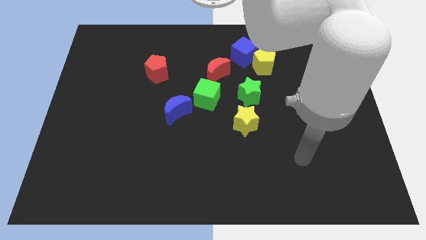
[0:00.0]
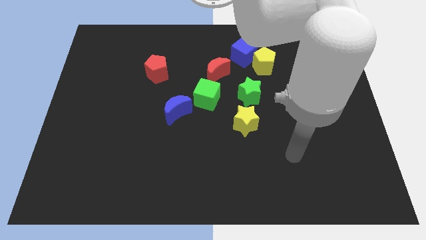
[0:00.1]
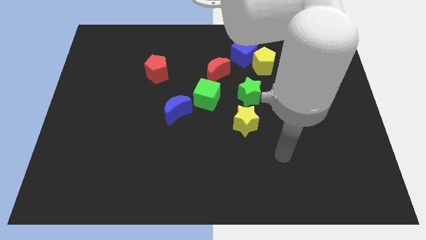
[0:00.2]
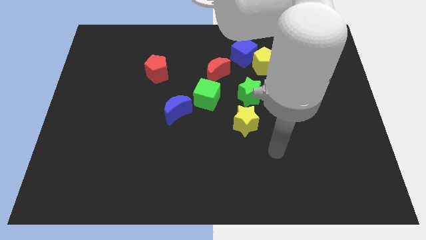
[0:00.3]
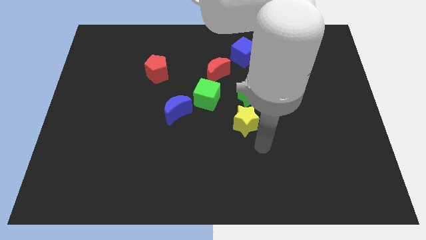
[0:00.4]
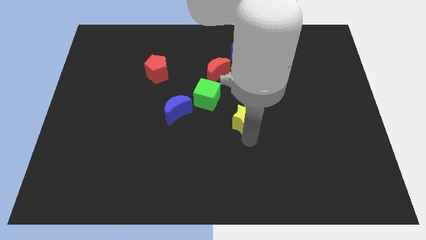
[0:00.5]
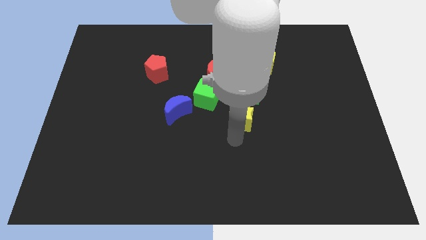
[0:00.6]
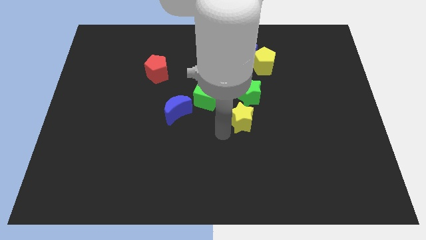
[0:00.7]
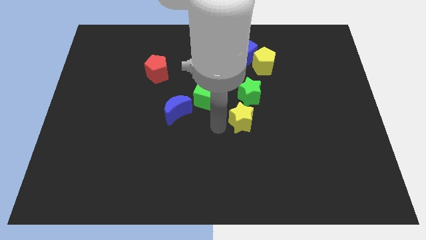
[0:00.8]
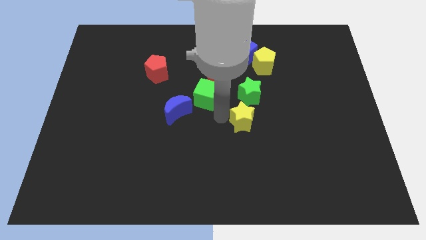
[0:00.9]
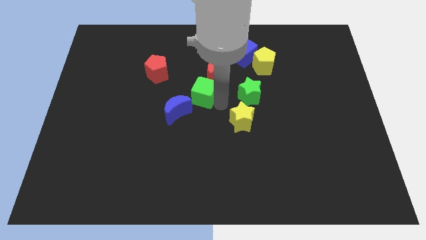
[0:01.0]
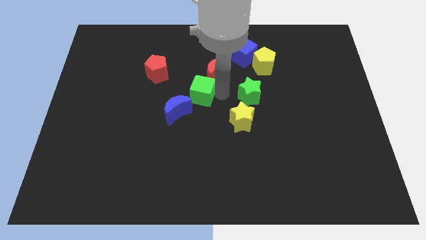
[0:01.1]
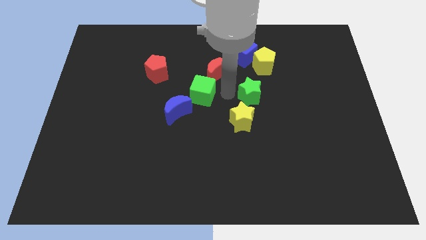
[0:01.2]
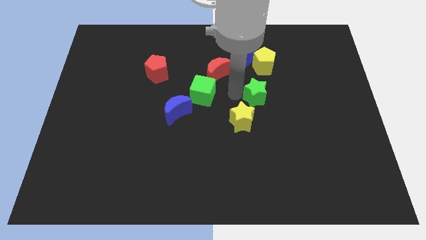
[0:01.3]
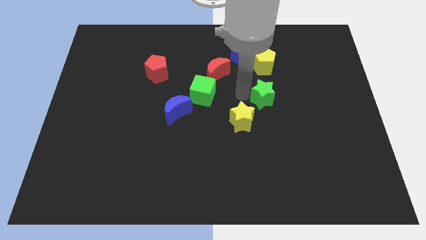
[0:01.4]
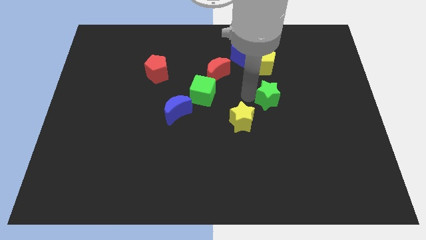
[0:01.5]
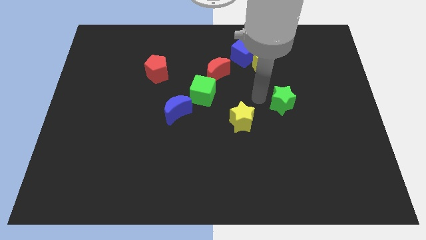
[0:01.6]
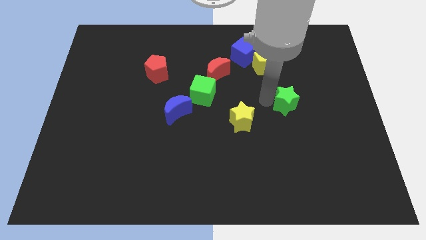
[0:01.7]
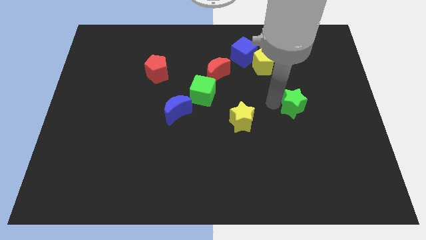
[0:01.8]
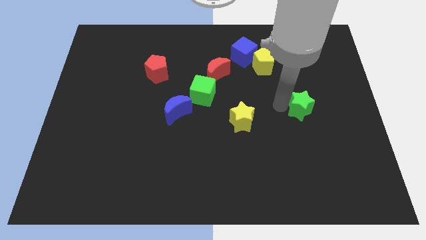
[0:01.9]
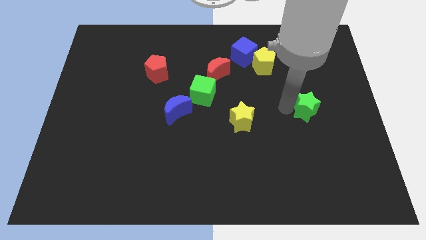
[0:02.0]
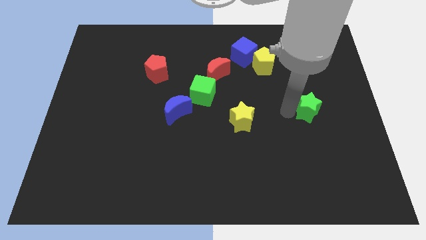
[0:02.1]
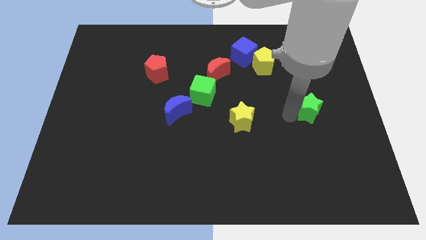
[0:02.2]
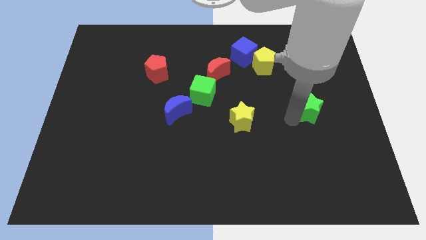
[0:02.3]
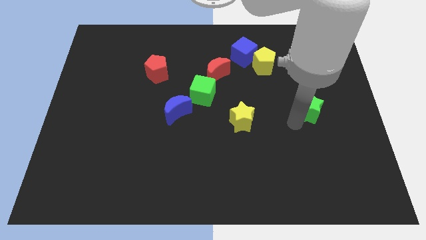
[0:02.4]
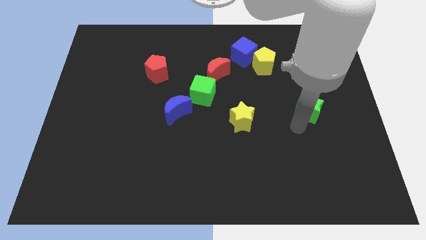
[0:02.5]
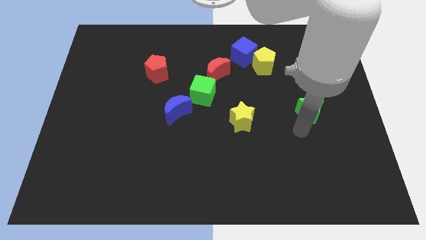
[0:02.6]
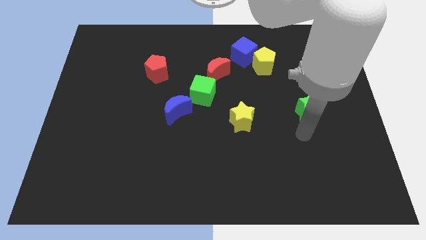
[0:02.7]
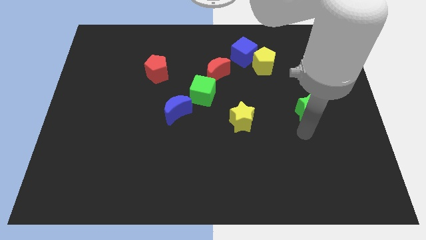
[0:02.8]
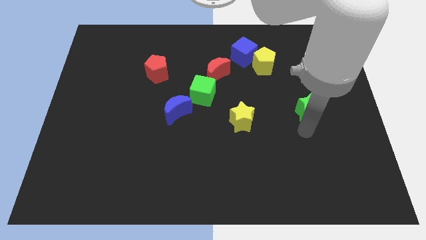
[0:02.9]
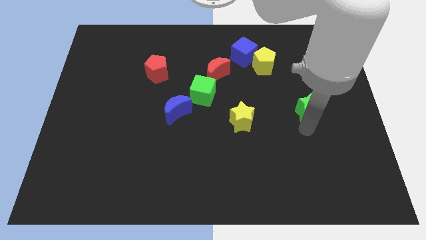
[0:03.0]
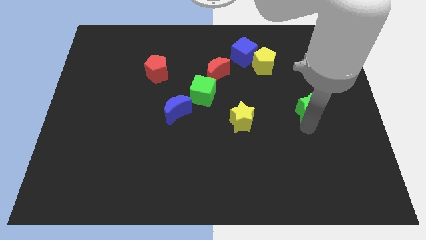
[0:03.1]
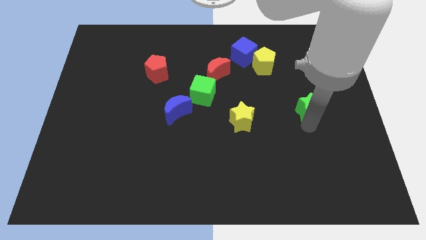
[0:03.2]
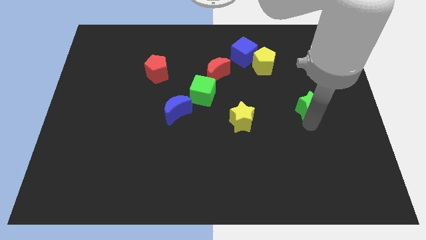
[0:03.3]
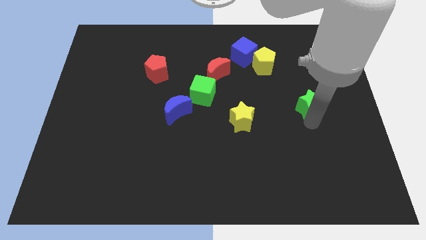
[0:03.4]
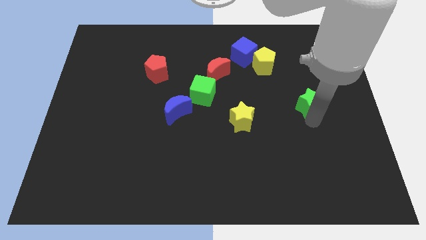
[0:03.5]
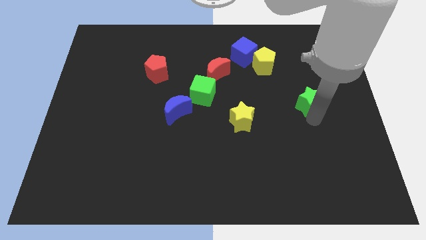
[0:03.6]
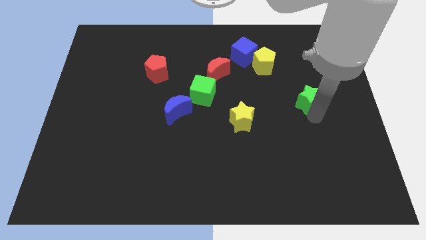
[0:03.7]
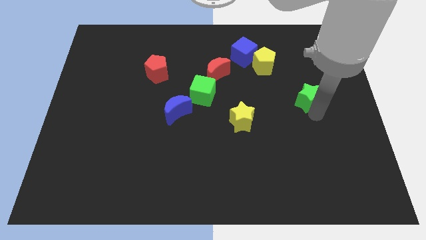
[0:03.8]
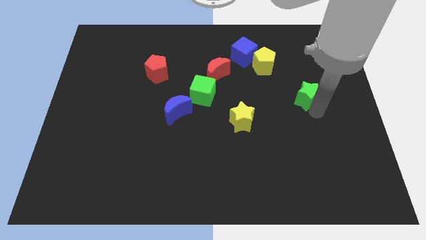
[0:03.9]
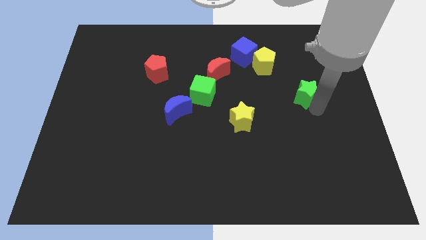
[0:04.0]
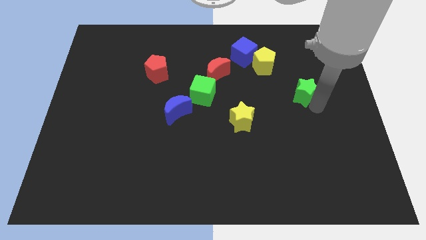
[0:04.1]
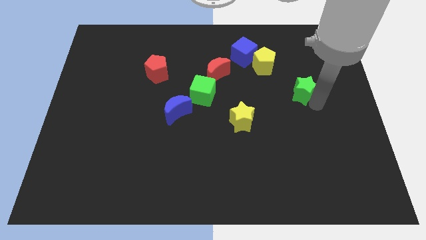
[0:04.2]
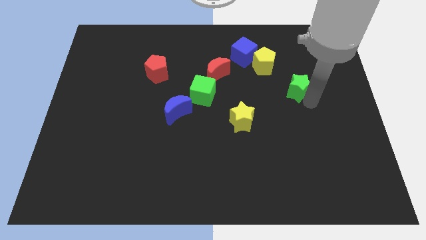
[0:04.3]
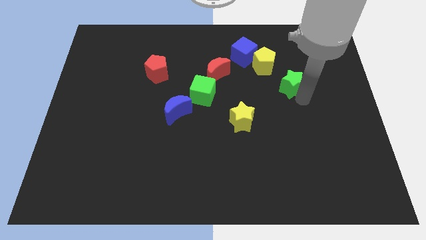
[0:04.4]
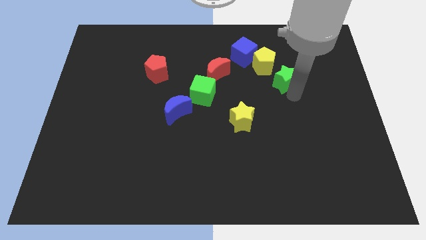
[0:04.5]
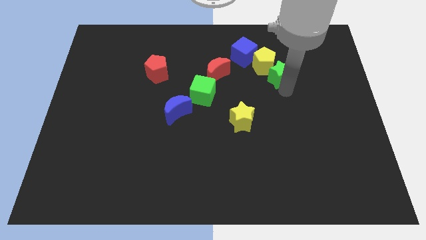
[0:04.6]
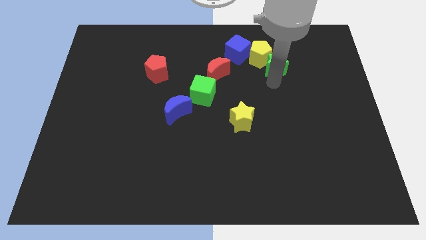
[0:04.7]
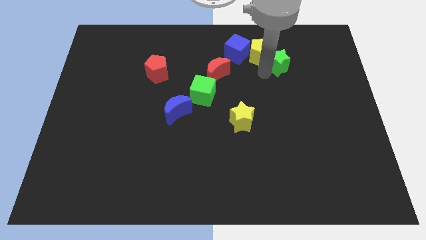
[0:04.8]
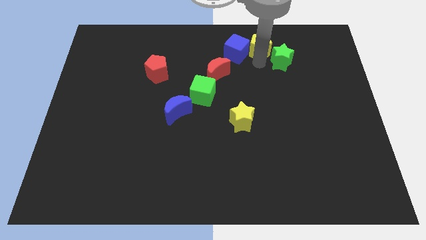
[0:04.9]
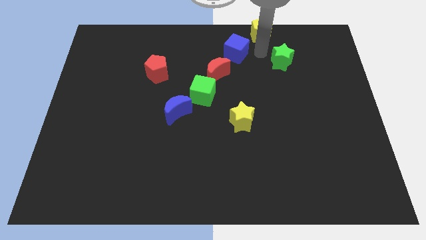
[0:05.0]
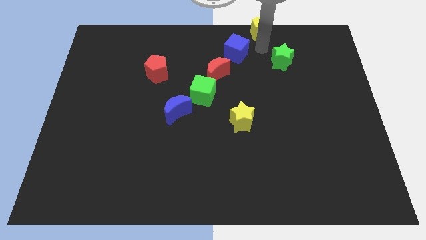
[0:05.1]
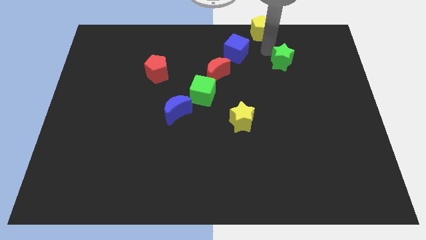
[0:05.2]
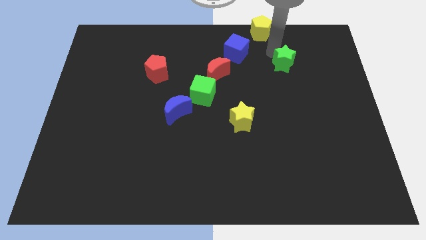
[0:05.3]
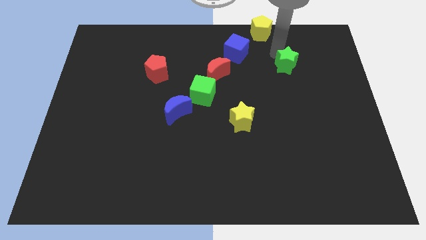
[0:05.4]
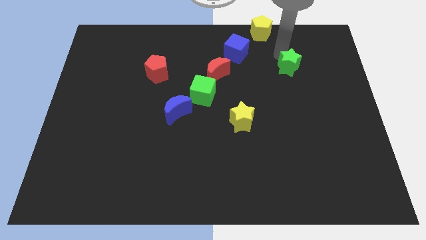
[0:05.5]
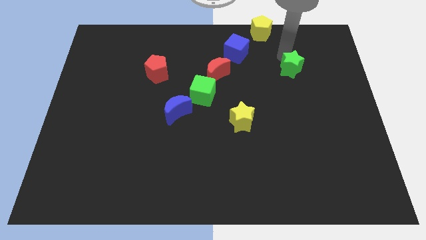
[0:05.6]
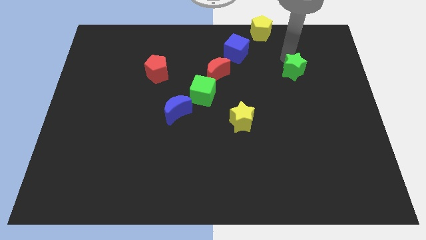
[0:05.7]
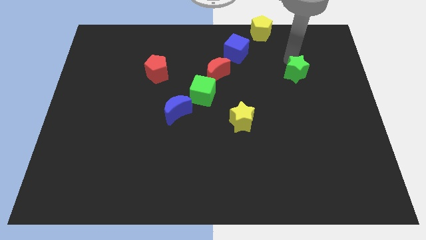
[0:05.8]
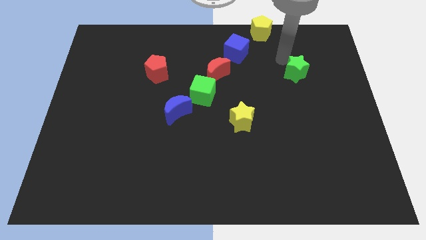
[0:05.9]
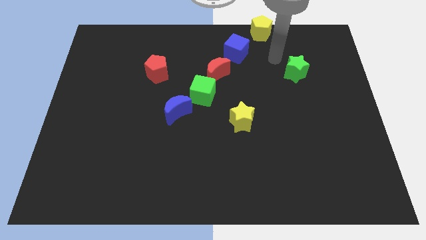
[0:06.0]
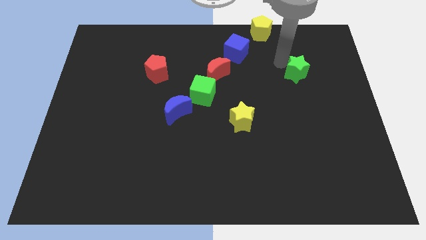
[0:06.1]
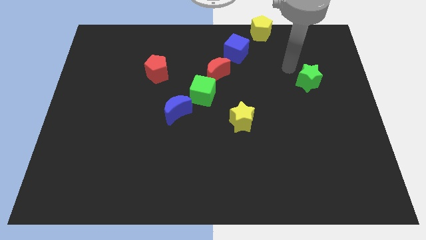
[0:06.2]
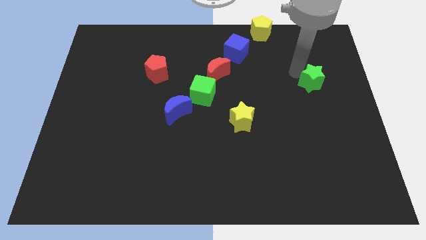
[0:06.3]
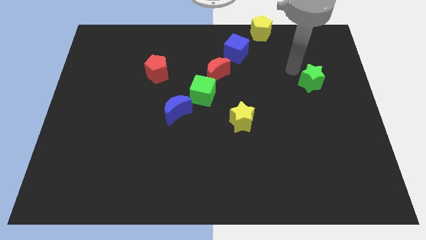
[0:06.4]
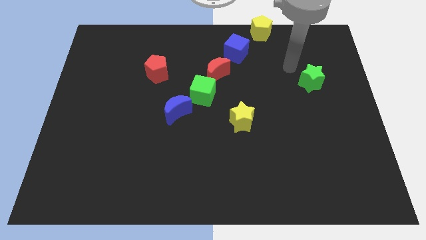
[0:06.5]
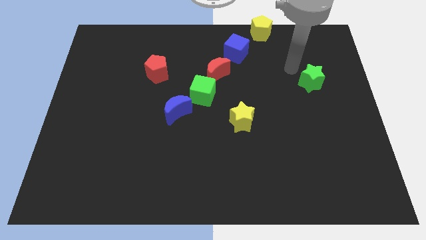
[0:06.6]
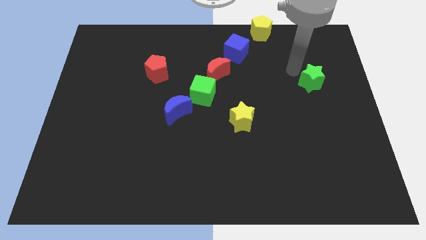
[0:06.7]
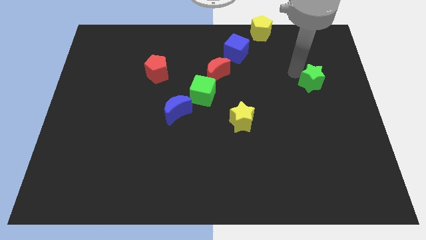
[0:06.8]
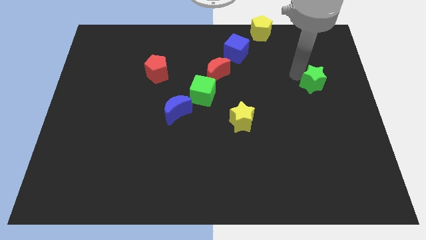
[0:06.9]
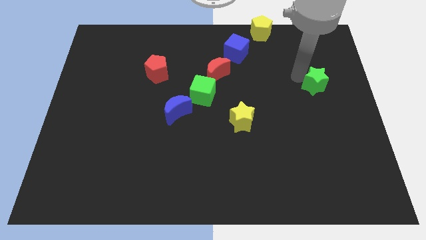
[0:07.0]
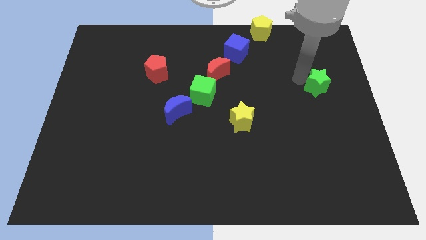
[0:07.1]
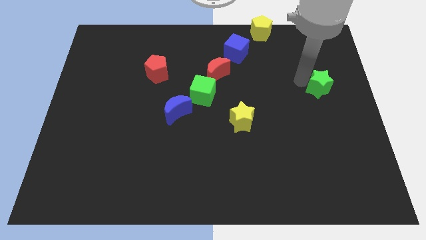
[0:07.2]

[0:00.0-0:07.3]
put the green star to the right side
